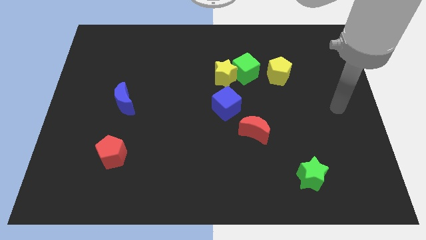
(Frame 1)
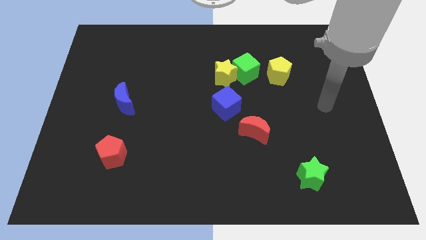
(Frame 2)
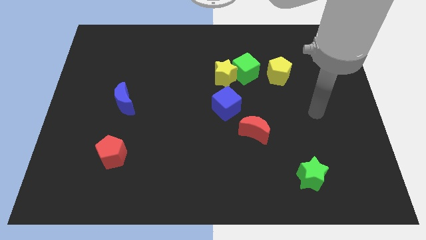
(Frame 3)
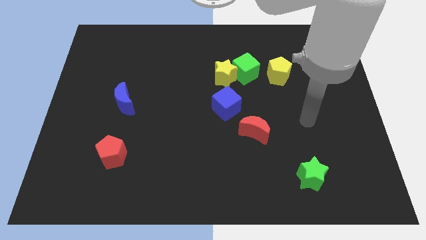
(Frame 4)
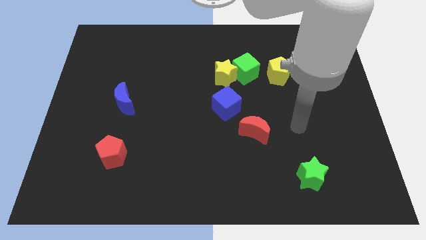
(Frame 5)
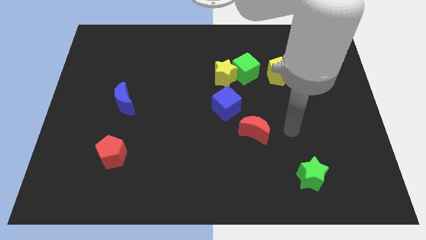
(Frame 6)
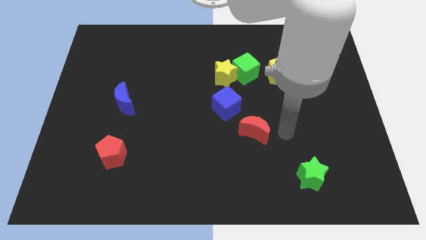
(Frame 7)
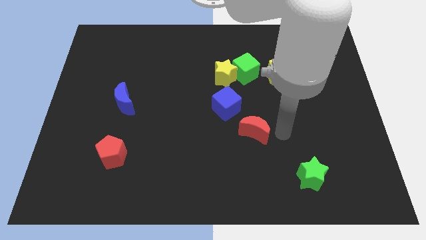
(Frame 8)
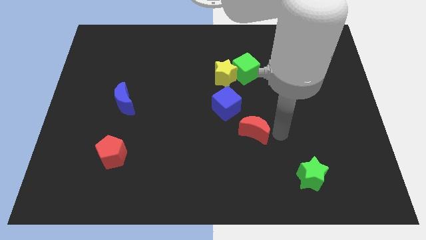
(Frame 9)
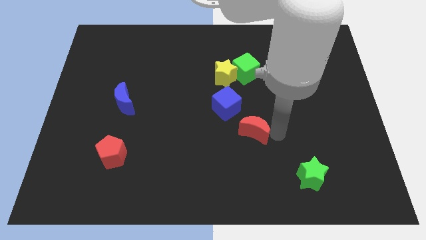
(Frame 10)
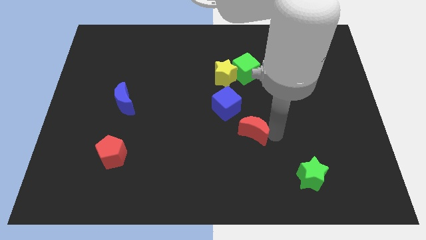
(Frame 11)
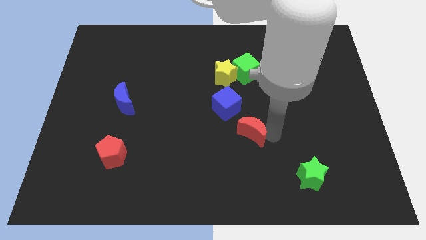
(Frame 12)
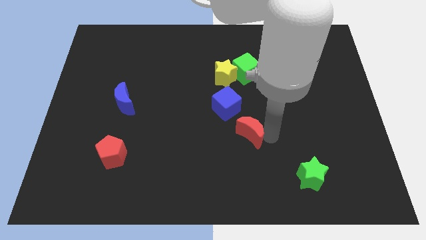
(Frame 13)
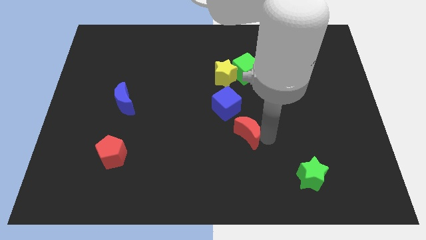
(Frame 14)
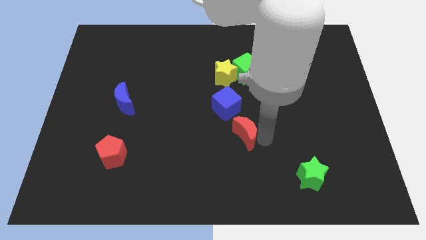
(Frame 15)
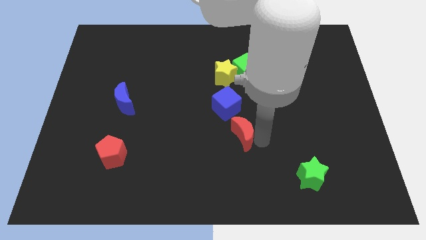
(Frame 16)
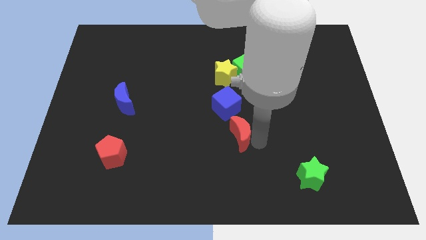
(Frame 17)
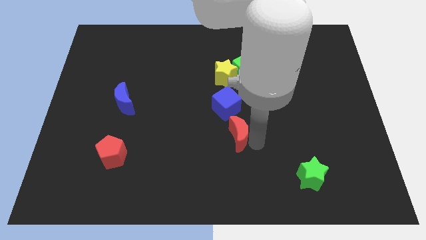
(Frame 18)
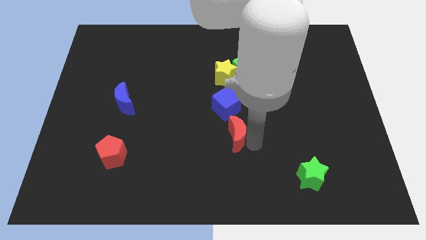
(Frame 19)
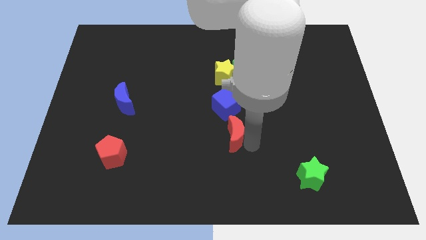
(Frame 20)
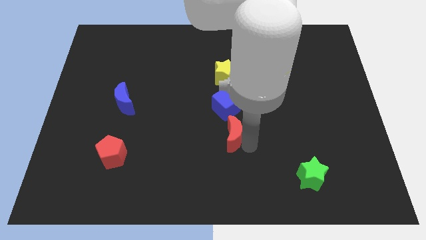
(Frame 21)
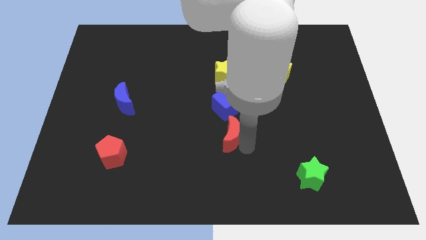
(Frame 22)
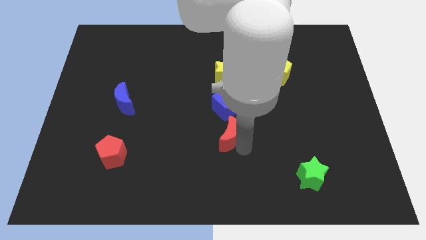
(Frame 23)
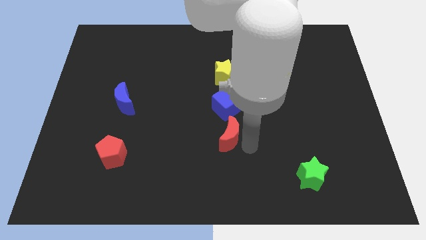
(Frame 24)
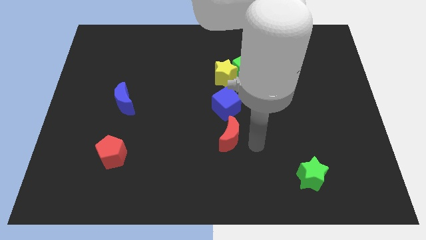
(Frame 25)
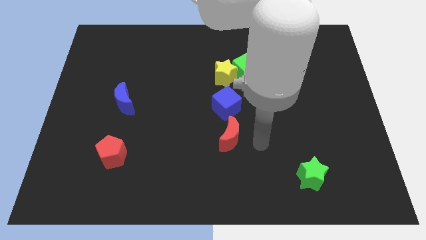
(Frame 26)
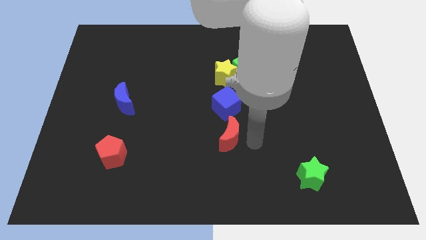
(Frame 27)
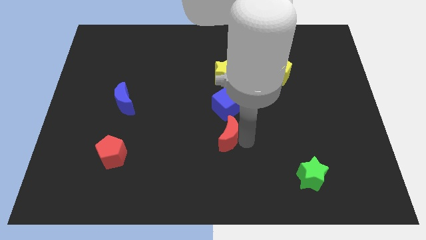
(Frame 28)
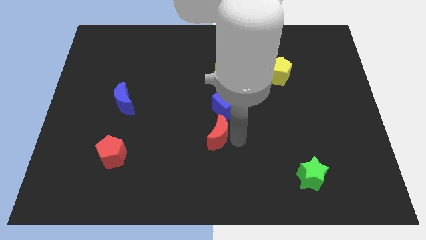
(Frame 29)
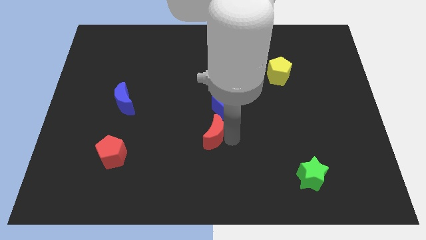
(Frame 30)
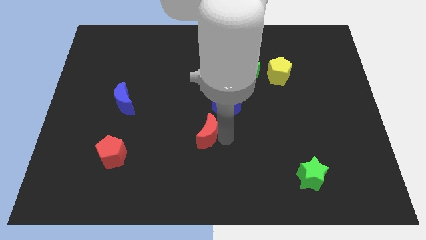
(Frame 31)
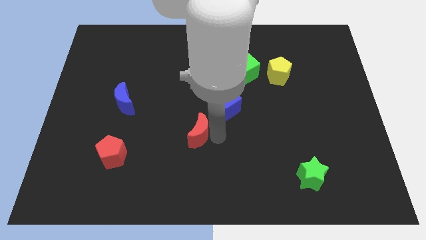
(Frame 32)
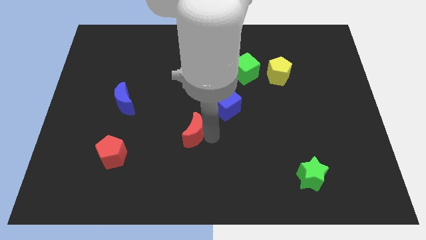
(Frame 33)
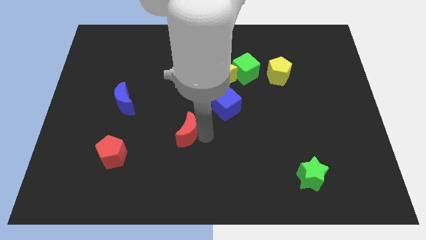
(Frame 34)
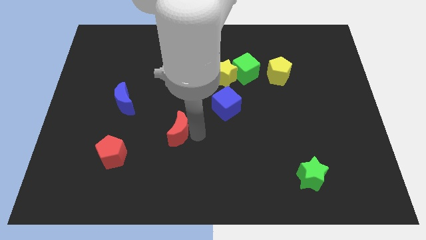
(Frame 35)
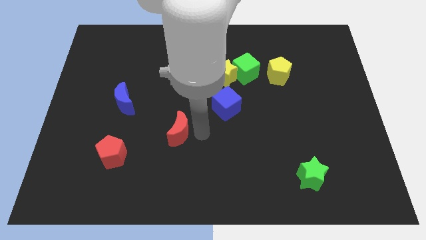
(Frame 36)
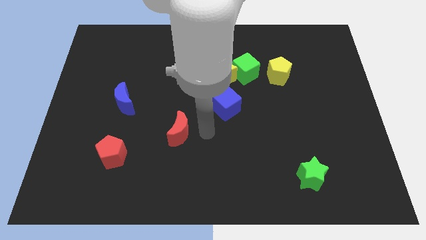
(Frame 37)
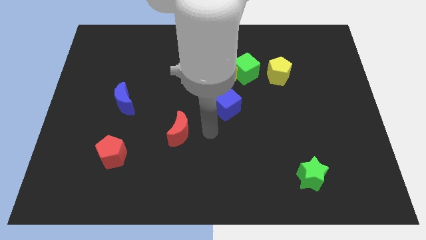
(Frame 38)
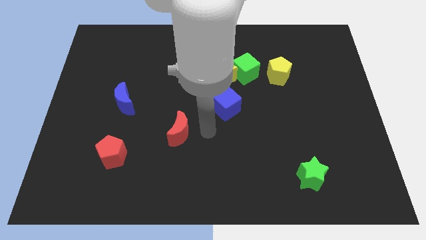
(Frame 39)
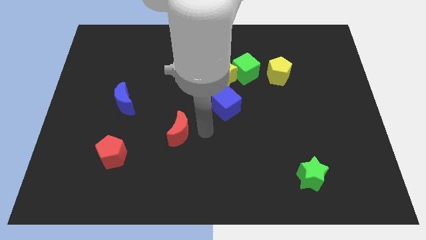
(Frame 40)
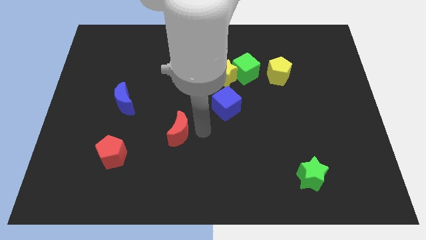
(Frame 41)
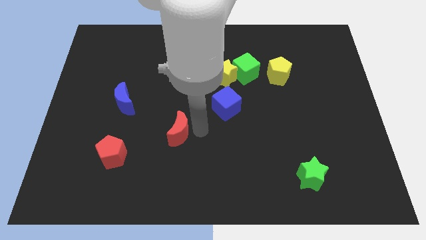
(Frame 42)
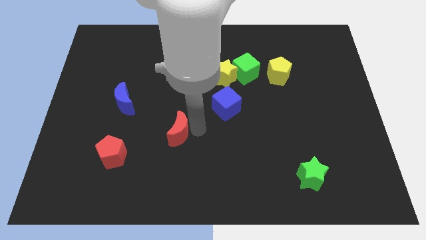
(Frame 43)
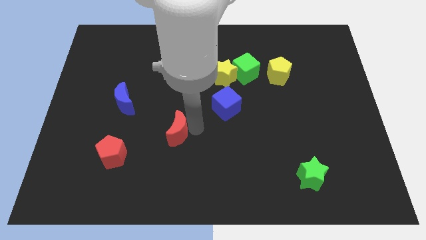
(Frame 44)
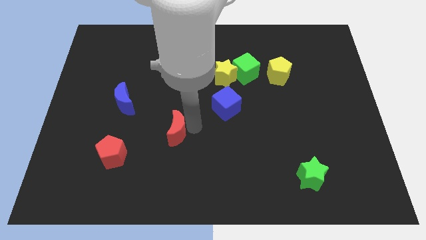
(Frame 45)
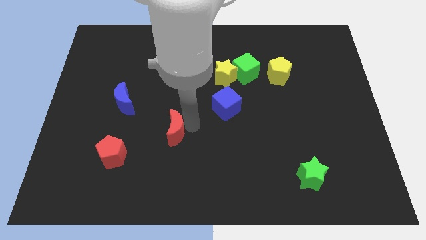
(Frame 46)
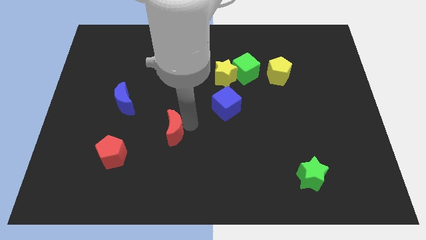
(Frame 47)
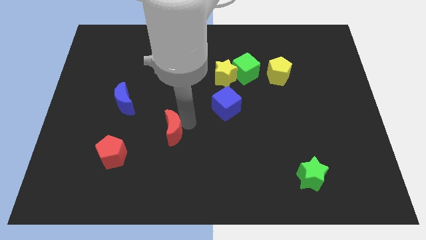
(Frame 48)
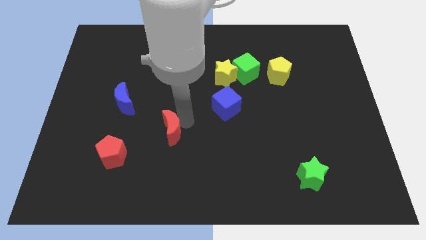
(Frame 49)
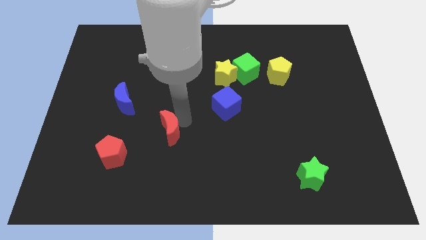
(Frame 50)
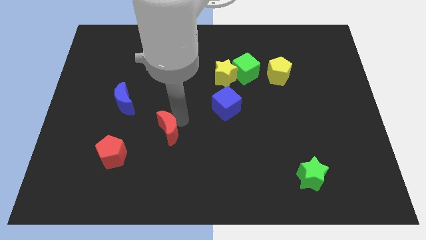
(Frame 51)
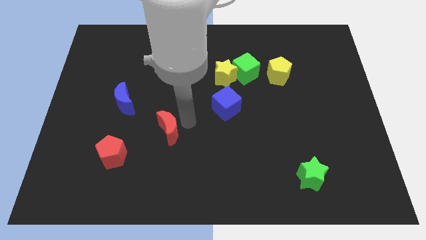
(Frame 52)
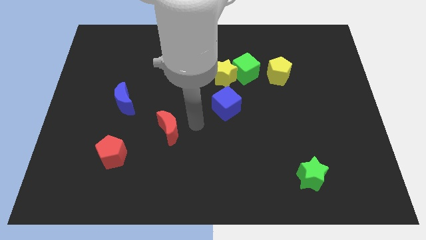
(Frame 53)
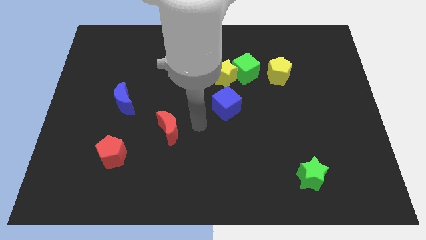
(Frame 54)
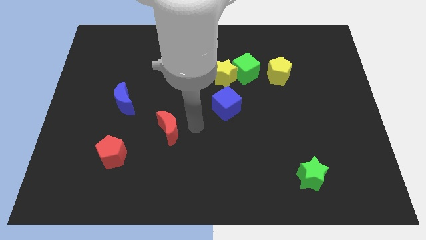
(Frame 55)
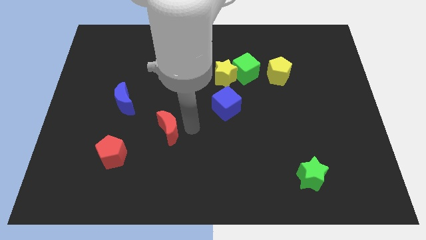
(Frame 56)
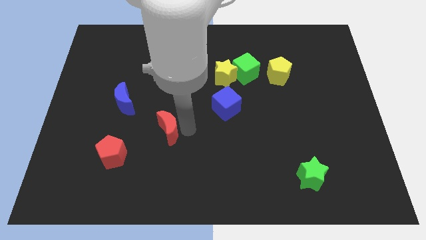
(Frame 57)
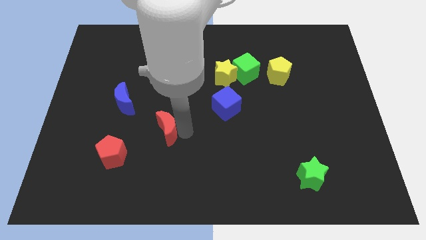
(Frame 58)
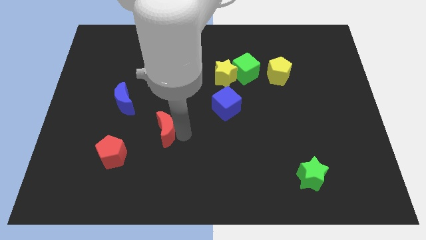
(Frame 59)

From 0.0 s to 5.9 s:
move the red moon to the left

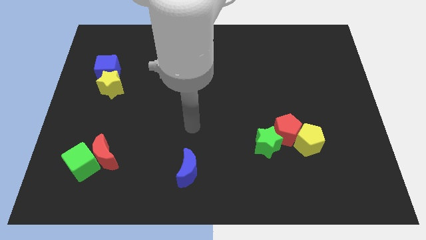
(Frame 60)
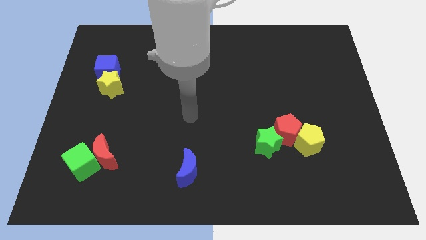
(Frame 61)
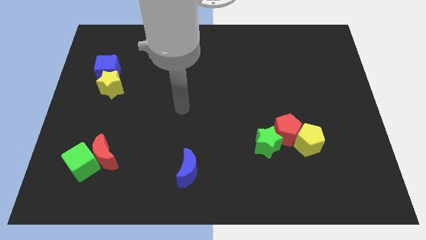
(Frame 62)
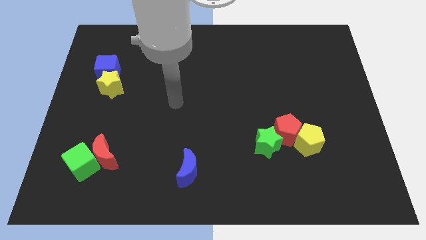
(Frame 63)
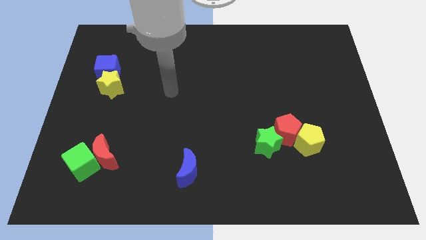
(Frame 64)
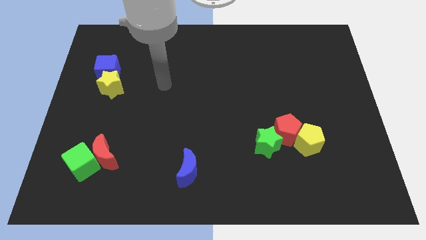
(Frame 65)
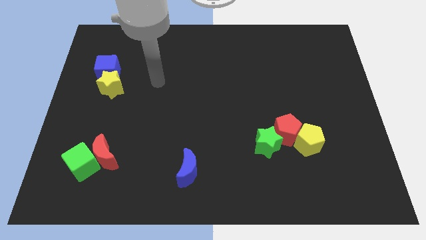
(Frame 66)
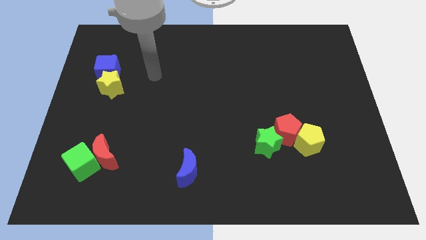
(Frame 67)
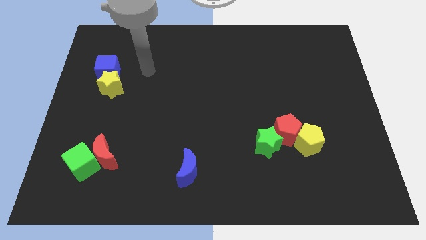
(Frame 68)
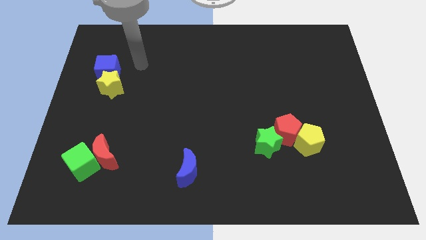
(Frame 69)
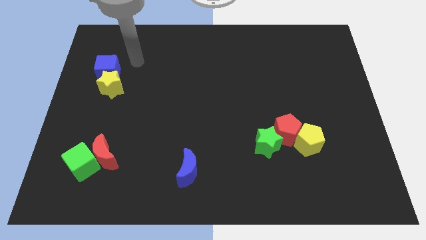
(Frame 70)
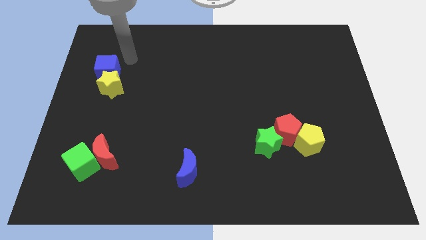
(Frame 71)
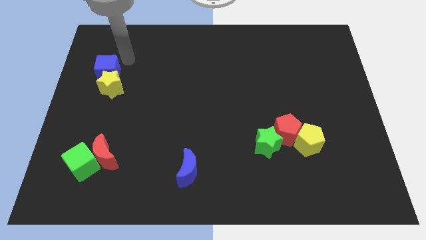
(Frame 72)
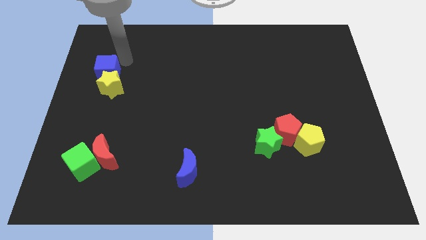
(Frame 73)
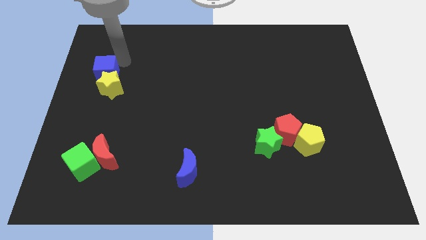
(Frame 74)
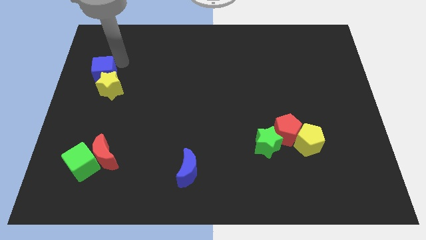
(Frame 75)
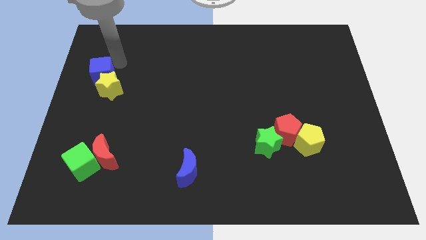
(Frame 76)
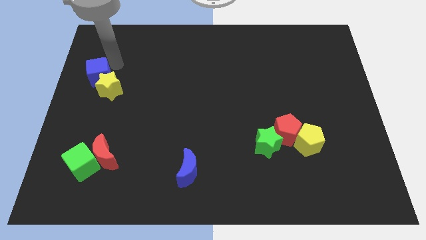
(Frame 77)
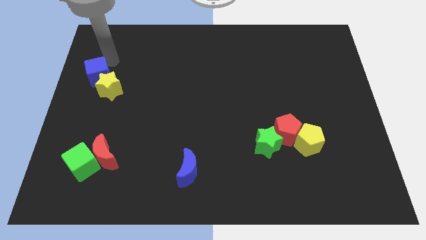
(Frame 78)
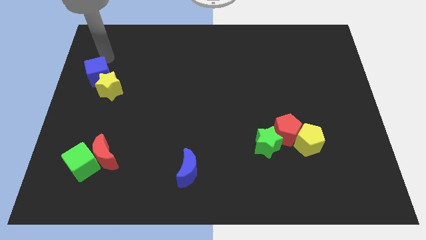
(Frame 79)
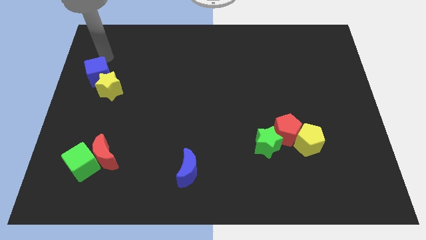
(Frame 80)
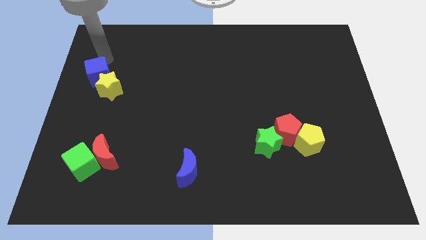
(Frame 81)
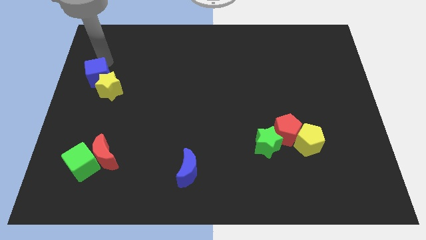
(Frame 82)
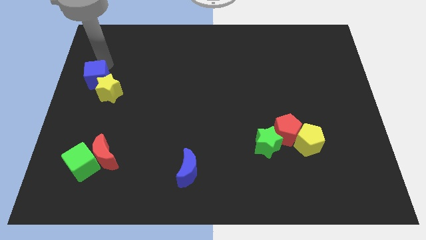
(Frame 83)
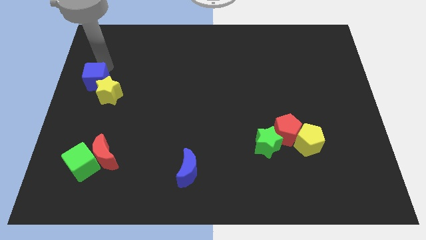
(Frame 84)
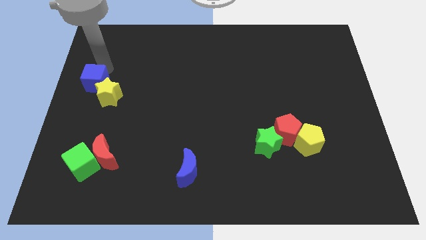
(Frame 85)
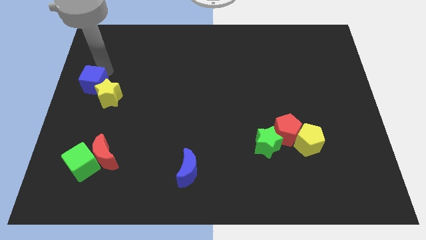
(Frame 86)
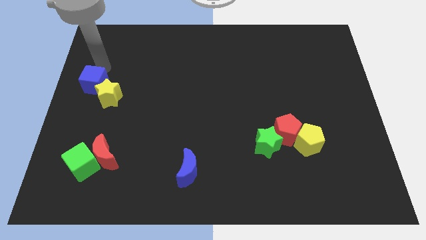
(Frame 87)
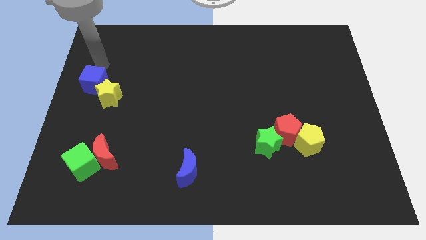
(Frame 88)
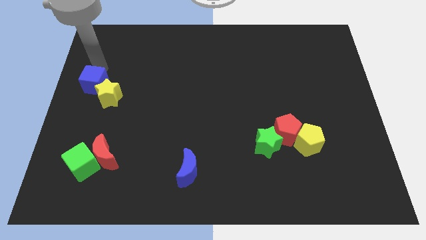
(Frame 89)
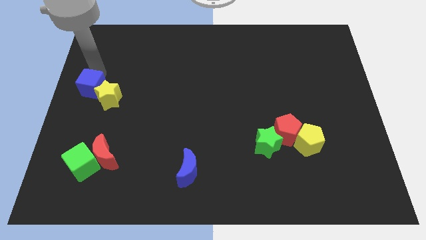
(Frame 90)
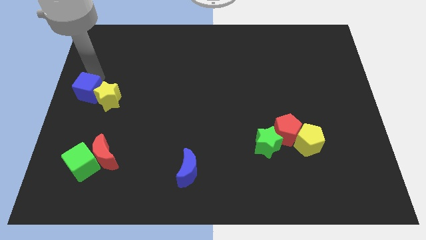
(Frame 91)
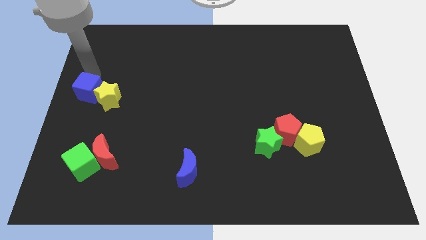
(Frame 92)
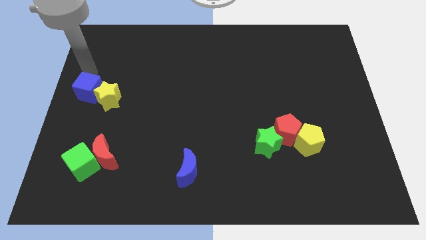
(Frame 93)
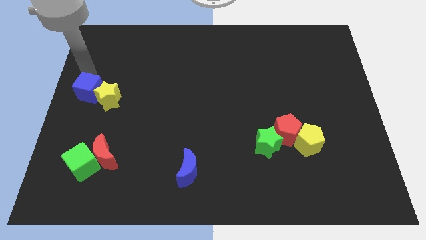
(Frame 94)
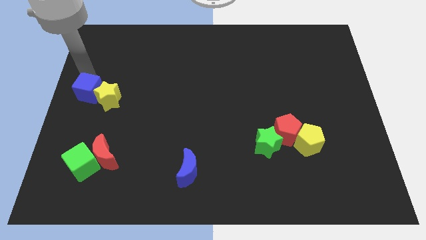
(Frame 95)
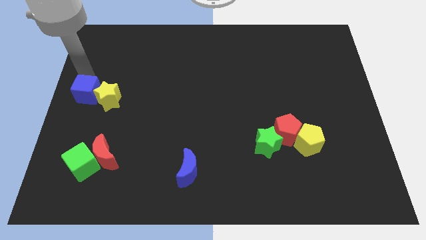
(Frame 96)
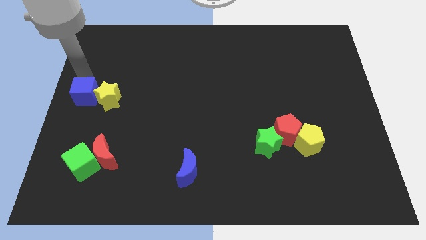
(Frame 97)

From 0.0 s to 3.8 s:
slide the blue cube a bit downwards
